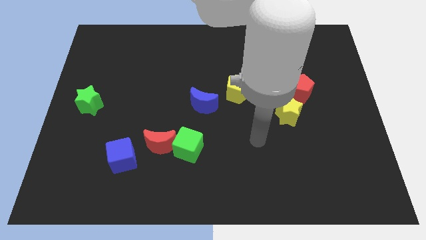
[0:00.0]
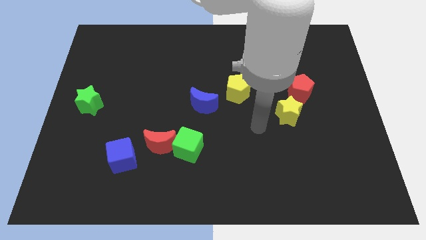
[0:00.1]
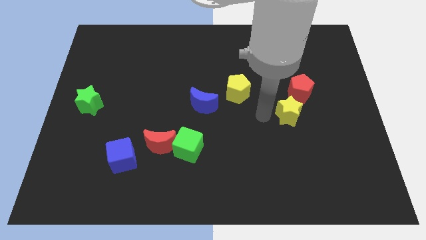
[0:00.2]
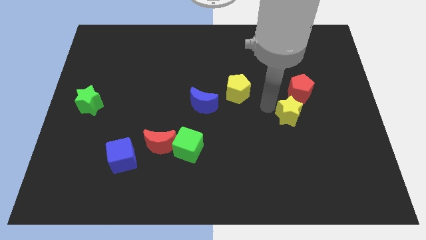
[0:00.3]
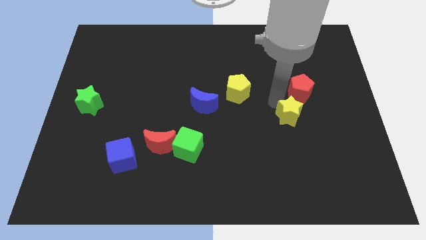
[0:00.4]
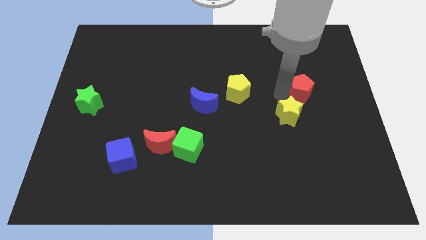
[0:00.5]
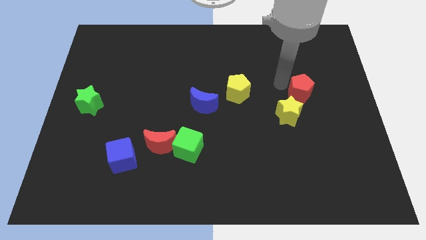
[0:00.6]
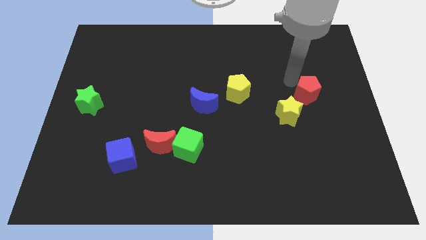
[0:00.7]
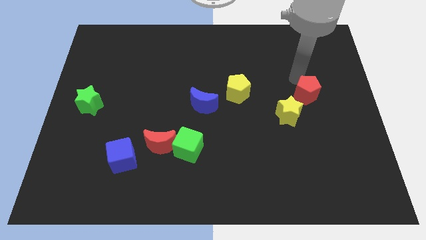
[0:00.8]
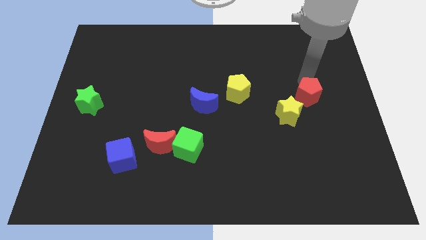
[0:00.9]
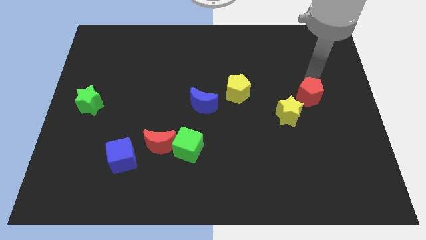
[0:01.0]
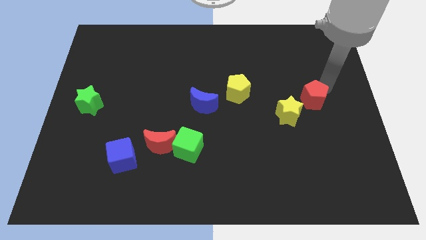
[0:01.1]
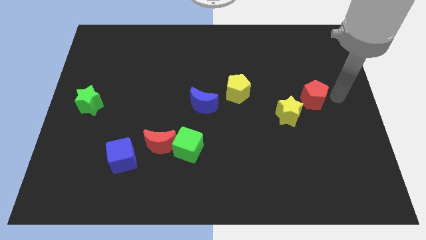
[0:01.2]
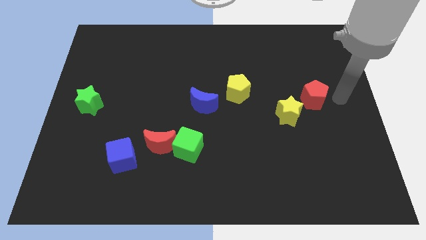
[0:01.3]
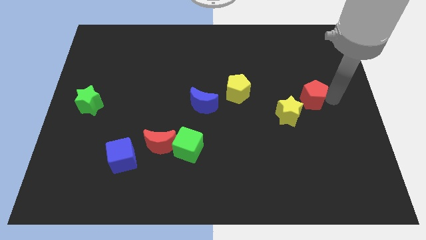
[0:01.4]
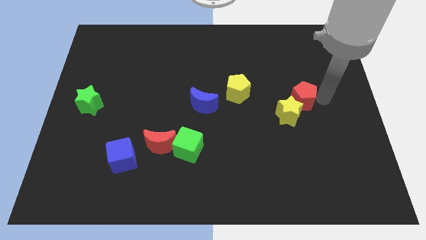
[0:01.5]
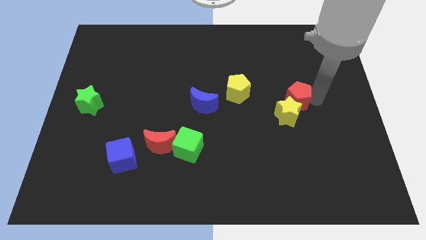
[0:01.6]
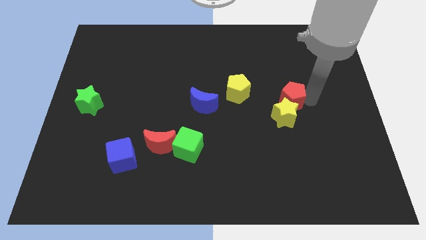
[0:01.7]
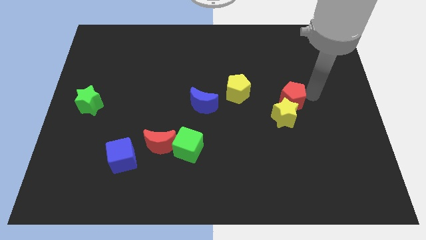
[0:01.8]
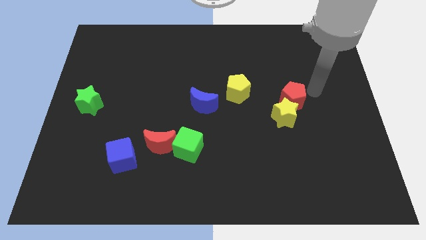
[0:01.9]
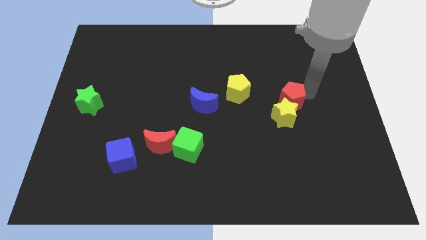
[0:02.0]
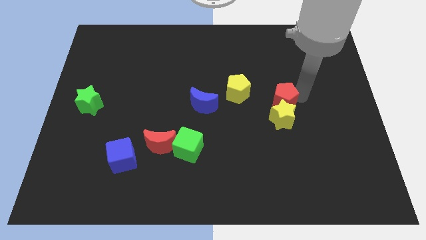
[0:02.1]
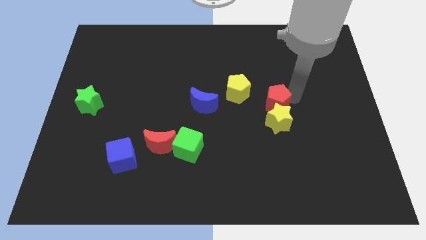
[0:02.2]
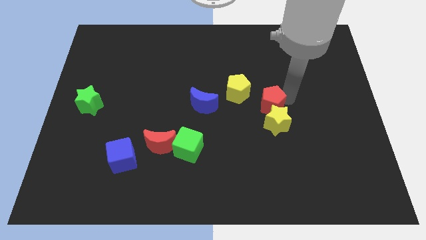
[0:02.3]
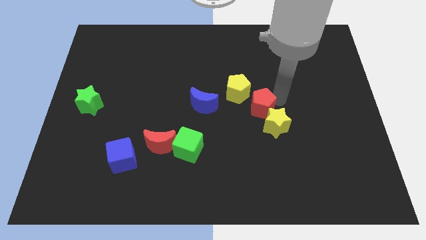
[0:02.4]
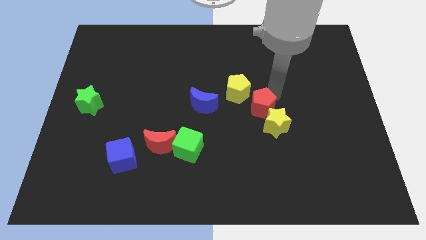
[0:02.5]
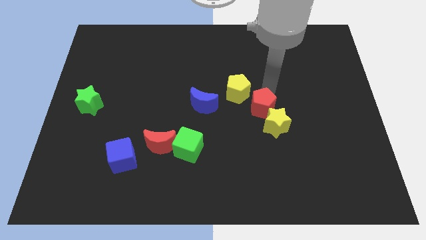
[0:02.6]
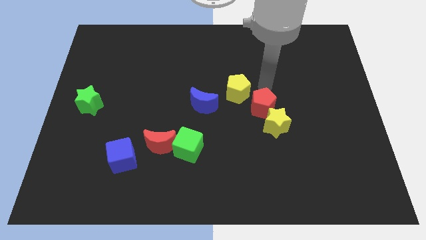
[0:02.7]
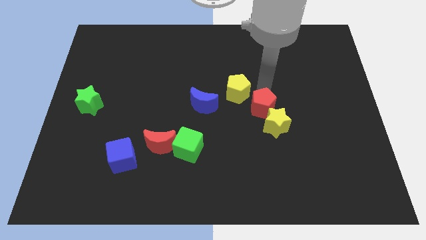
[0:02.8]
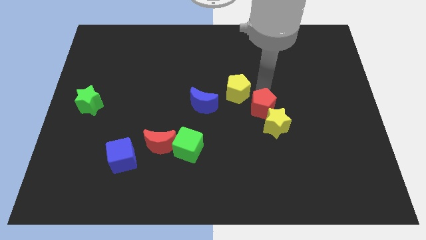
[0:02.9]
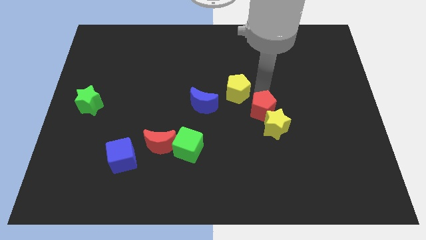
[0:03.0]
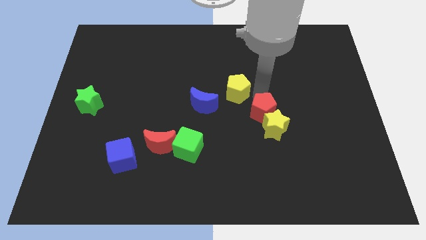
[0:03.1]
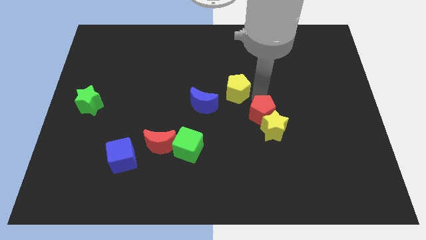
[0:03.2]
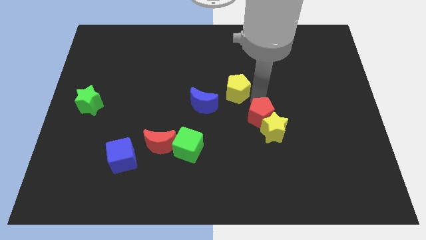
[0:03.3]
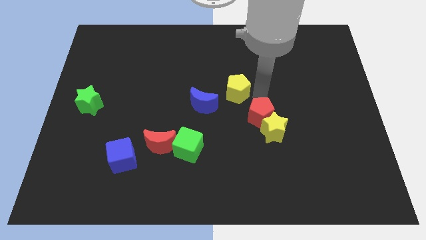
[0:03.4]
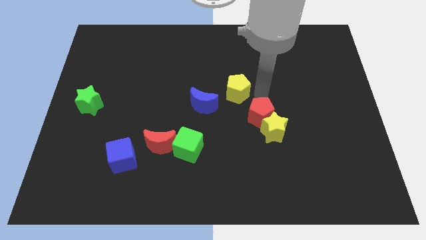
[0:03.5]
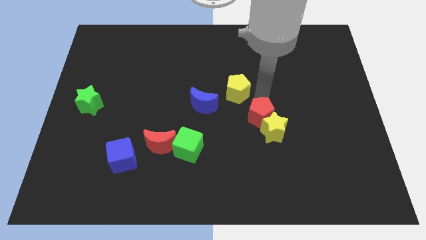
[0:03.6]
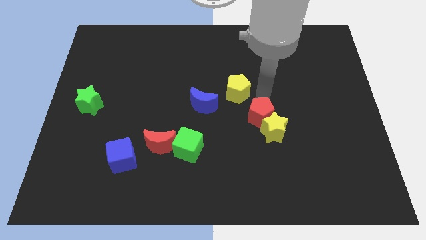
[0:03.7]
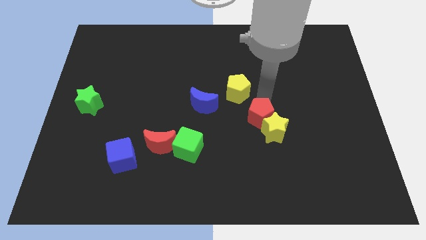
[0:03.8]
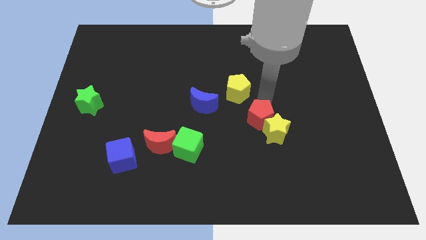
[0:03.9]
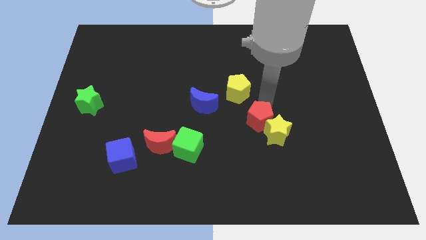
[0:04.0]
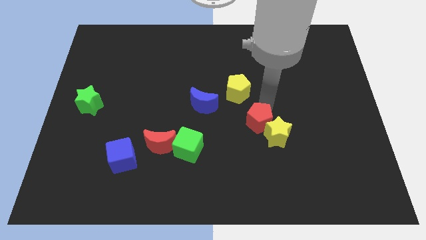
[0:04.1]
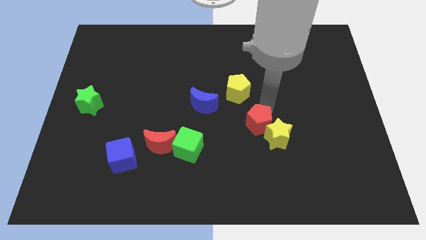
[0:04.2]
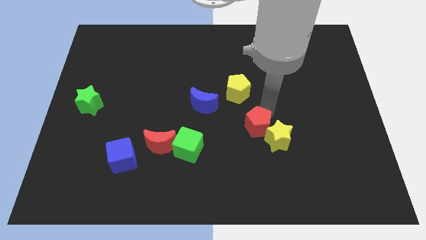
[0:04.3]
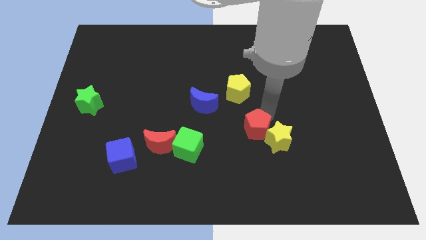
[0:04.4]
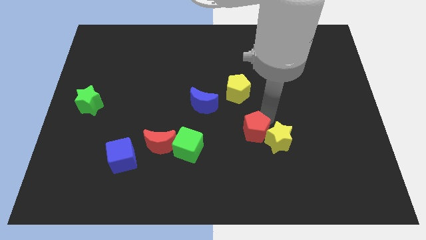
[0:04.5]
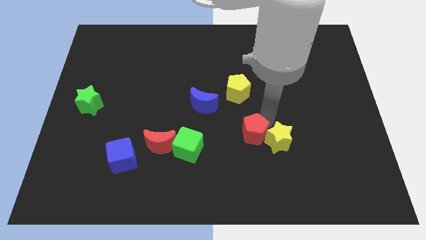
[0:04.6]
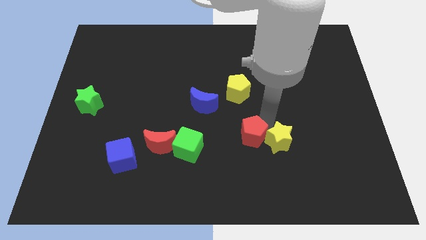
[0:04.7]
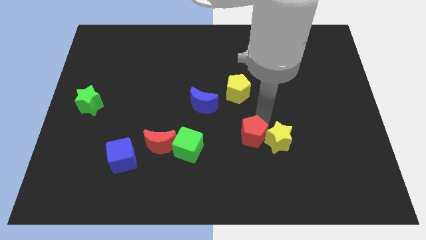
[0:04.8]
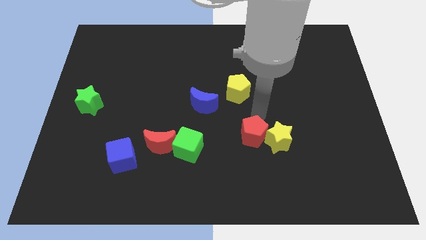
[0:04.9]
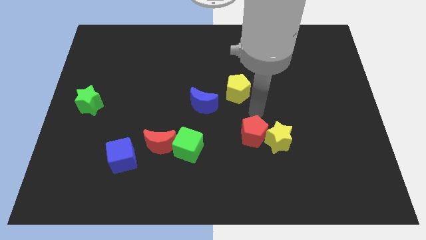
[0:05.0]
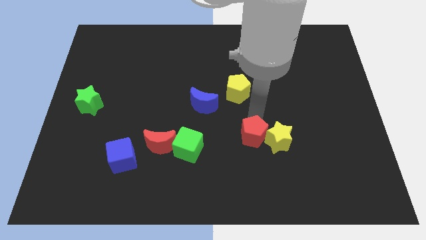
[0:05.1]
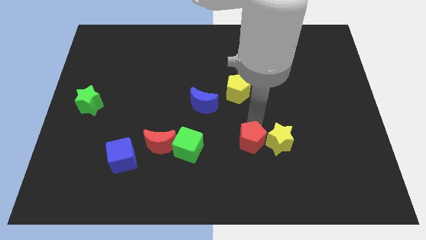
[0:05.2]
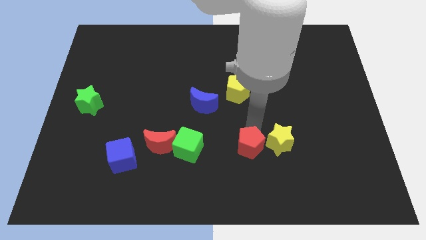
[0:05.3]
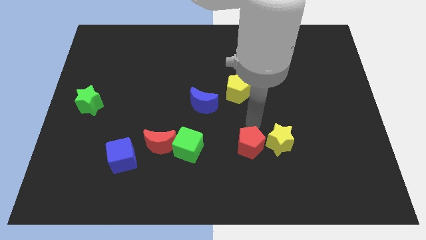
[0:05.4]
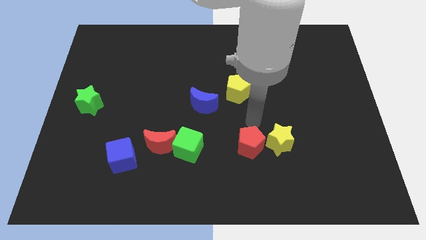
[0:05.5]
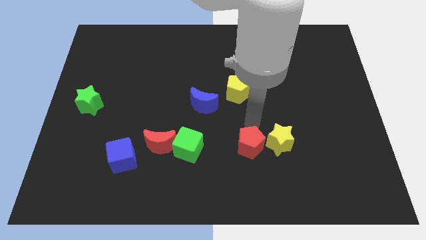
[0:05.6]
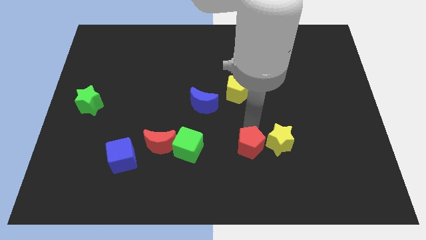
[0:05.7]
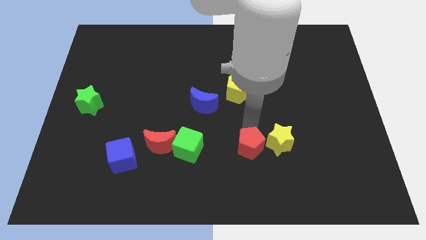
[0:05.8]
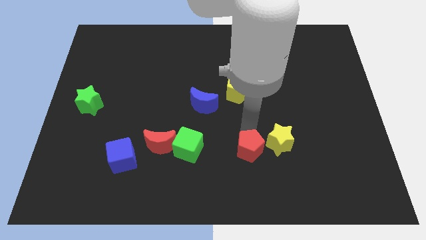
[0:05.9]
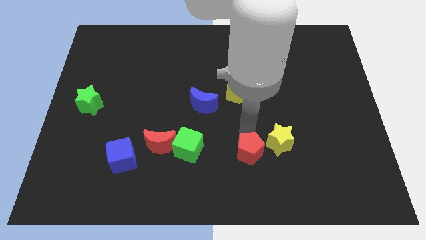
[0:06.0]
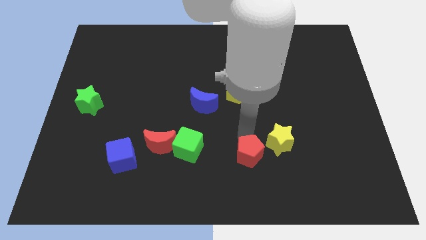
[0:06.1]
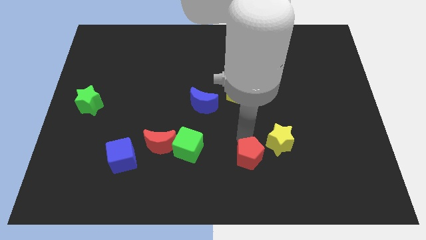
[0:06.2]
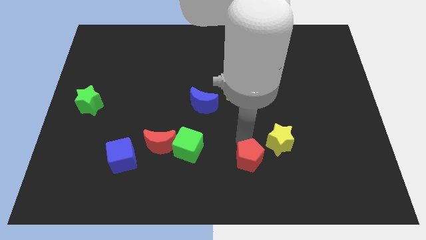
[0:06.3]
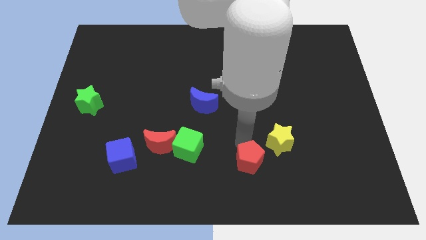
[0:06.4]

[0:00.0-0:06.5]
put the red pentagon to the bottom side

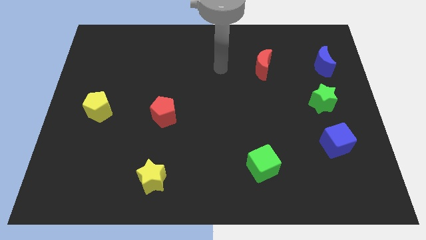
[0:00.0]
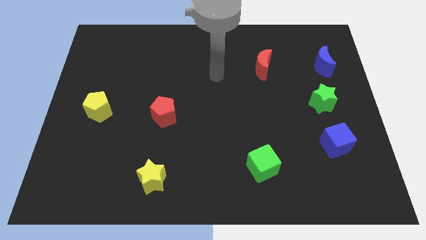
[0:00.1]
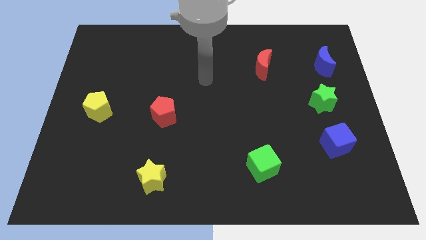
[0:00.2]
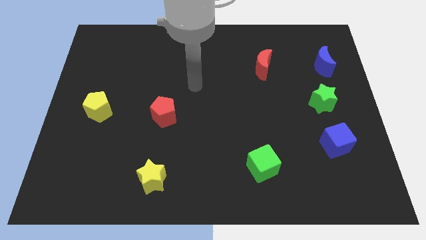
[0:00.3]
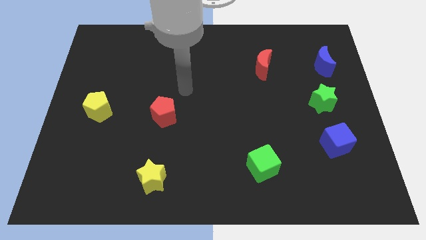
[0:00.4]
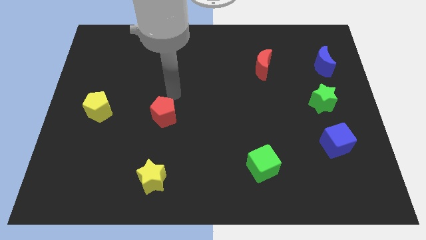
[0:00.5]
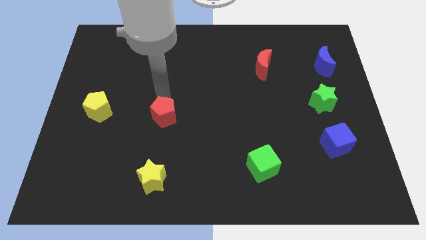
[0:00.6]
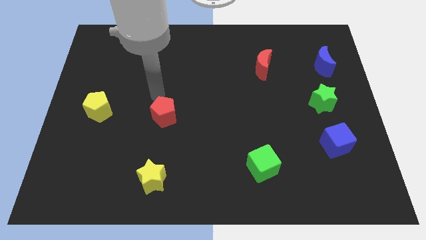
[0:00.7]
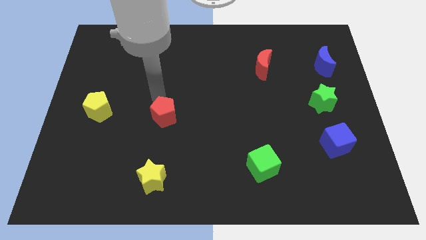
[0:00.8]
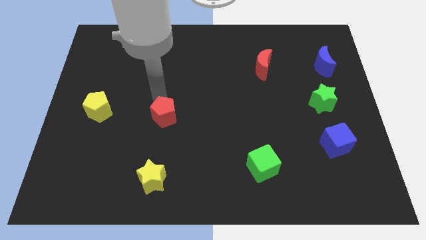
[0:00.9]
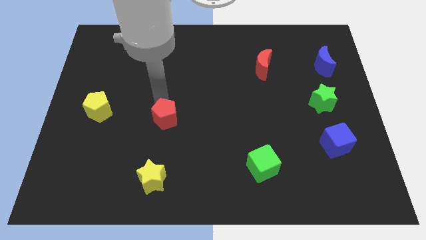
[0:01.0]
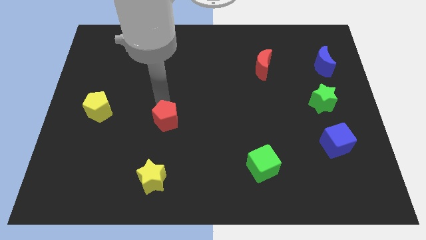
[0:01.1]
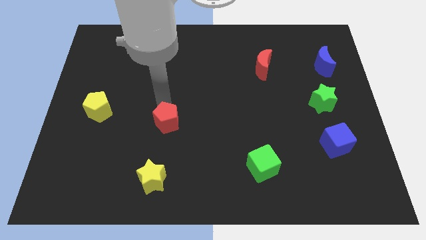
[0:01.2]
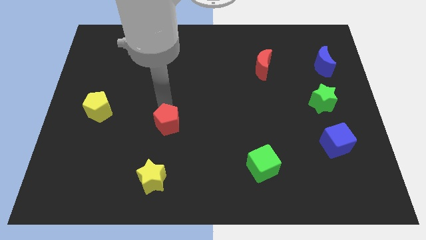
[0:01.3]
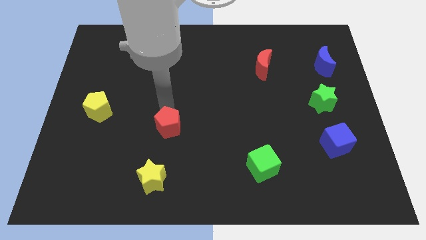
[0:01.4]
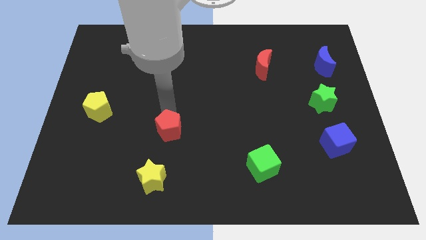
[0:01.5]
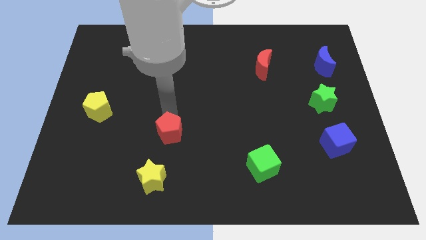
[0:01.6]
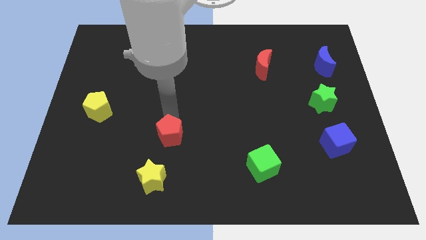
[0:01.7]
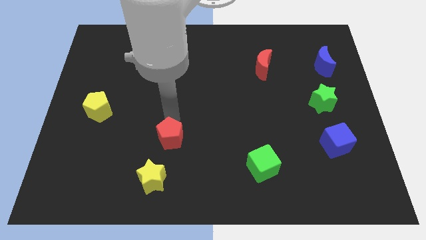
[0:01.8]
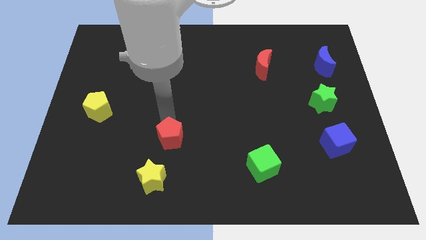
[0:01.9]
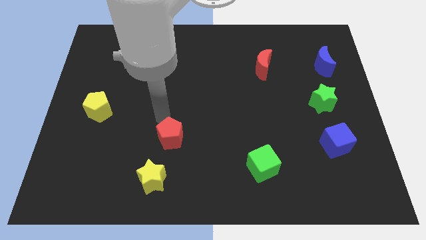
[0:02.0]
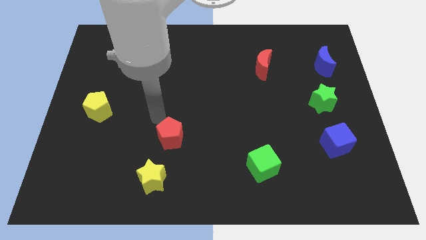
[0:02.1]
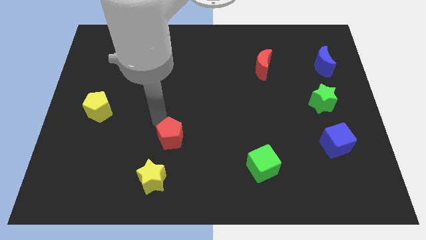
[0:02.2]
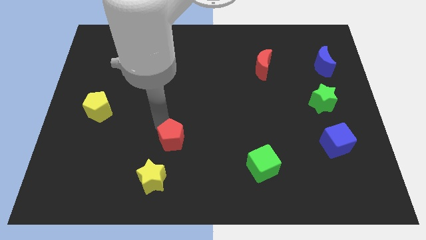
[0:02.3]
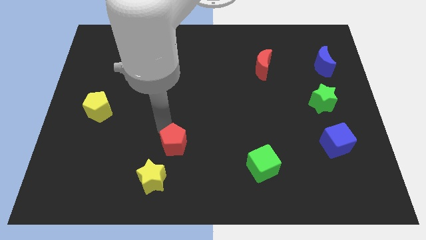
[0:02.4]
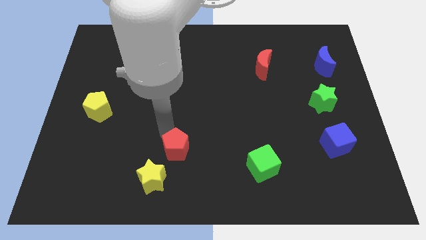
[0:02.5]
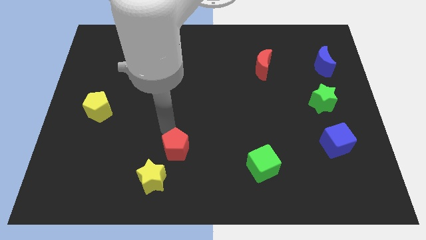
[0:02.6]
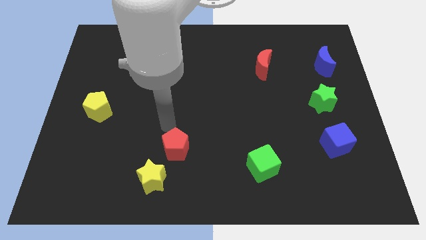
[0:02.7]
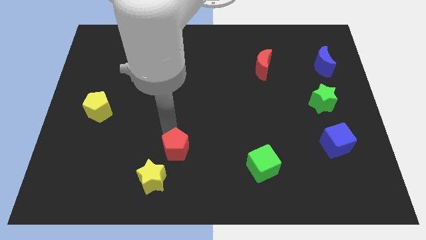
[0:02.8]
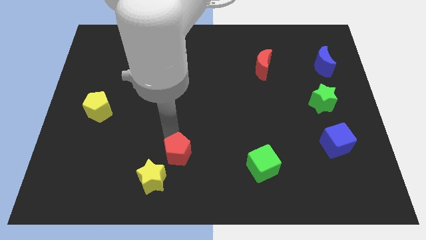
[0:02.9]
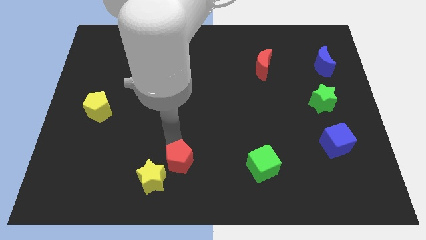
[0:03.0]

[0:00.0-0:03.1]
slide the red pentagon to the bottom side
